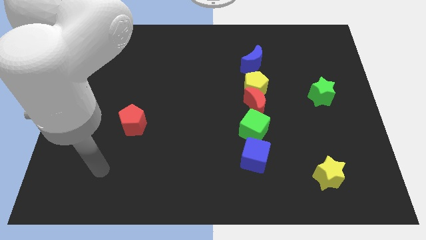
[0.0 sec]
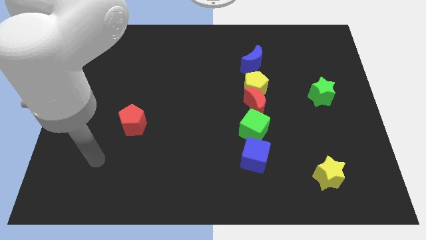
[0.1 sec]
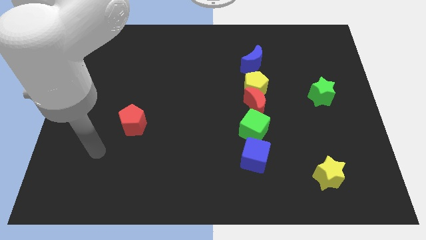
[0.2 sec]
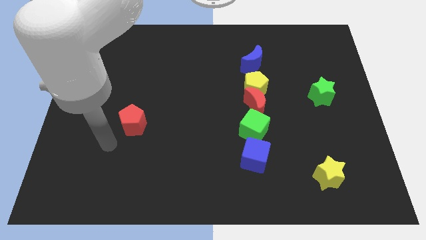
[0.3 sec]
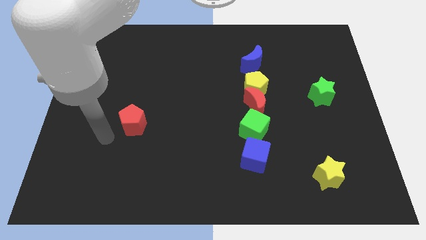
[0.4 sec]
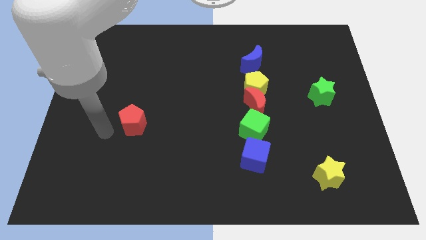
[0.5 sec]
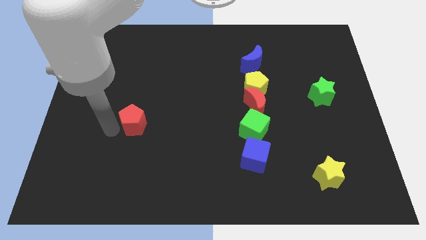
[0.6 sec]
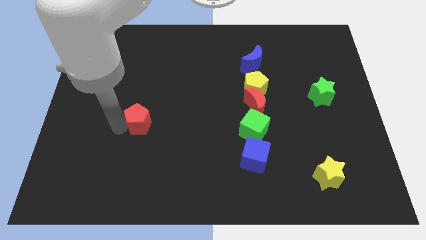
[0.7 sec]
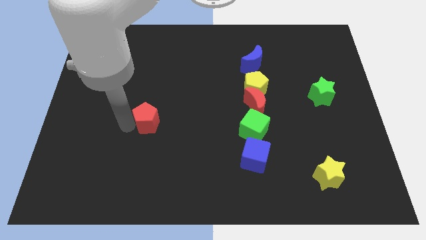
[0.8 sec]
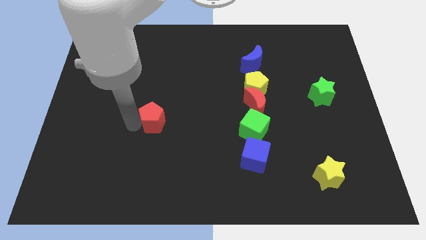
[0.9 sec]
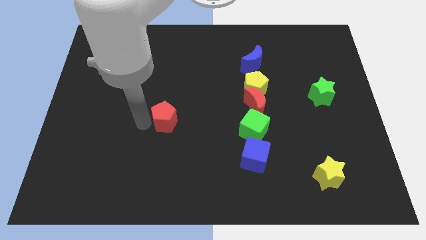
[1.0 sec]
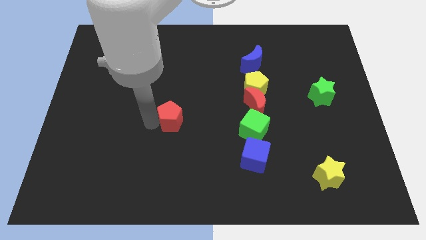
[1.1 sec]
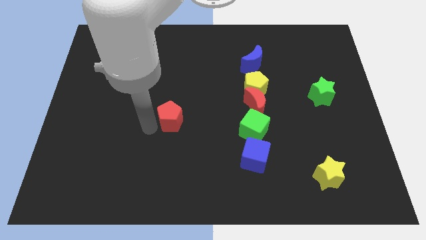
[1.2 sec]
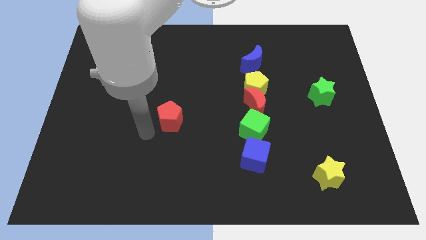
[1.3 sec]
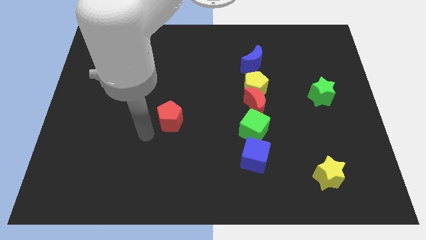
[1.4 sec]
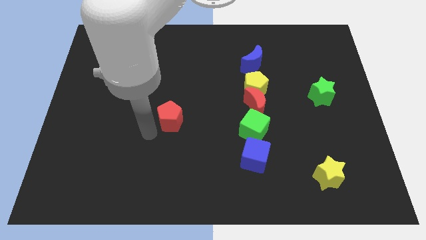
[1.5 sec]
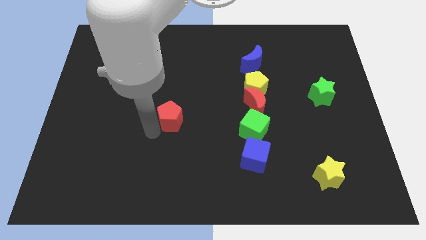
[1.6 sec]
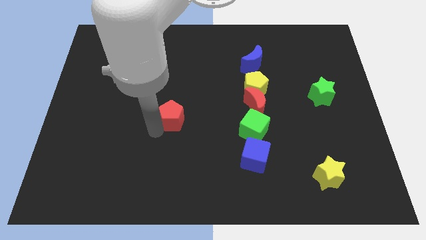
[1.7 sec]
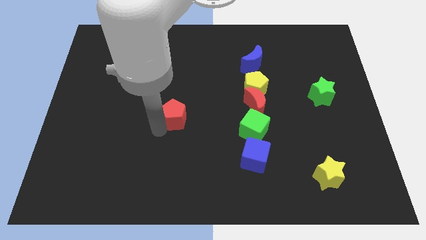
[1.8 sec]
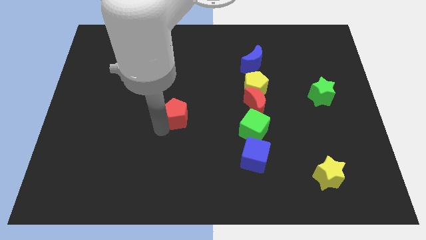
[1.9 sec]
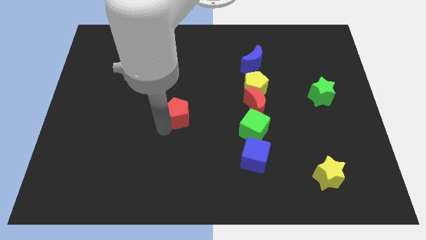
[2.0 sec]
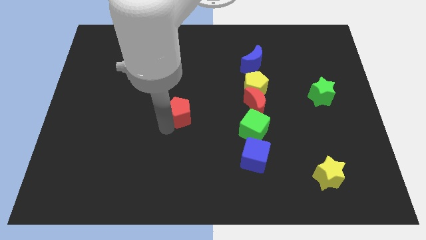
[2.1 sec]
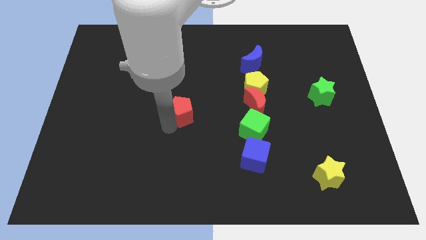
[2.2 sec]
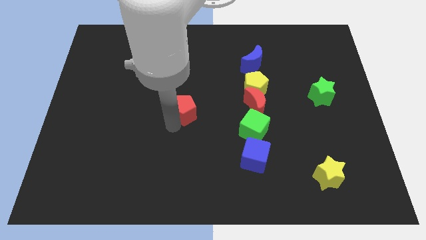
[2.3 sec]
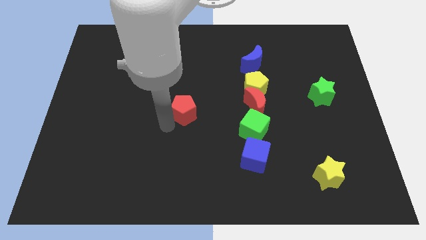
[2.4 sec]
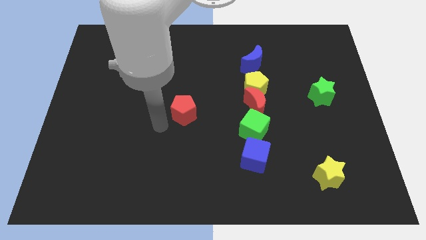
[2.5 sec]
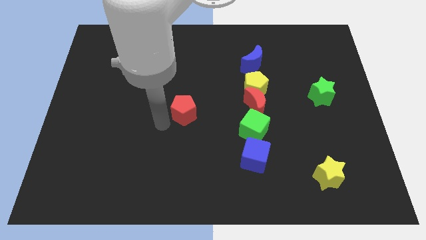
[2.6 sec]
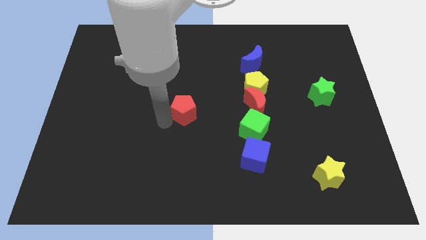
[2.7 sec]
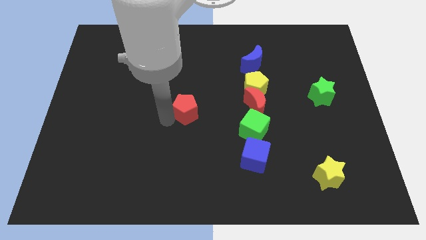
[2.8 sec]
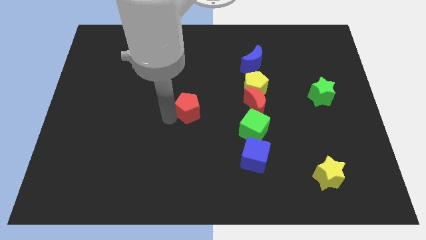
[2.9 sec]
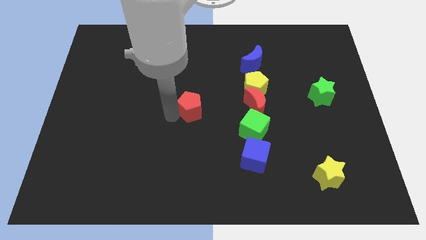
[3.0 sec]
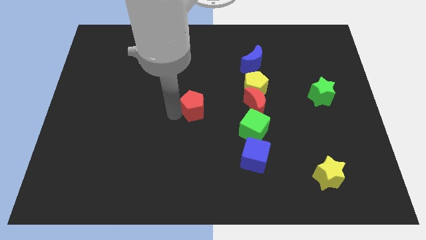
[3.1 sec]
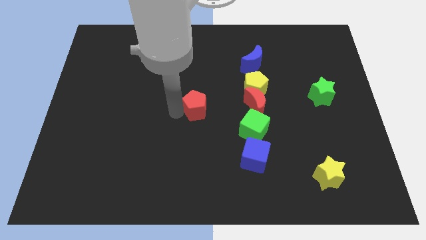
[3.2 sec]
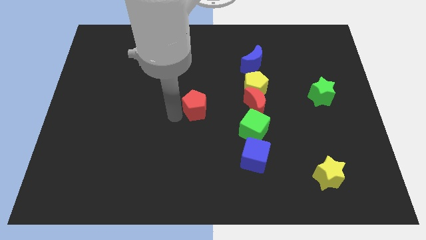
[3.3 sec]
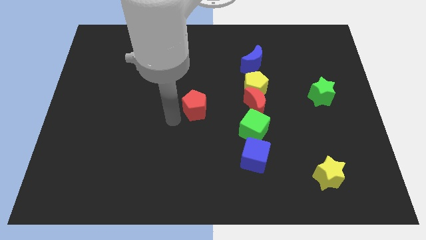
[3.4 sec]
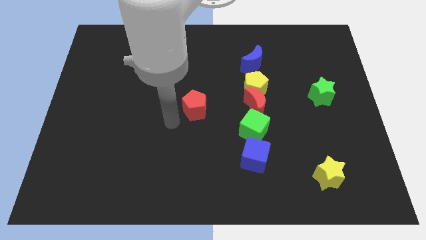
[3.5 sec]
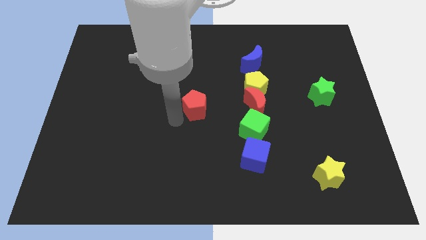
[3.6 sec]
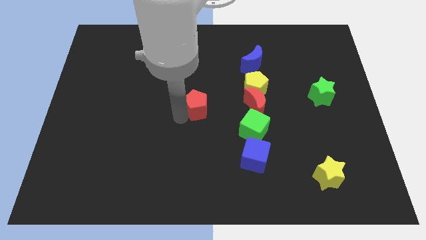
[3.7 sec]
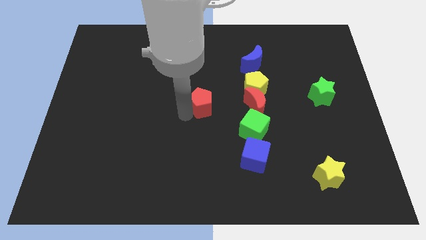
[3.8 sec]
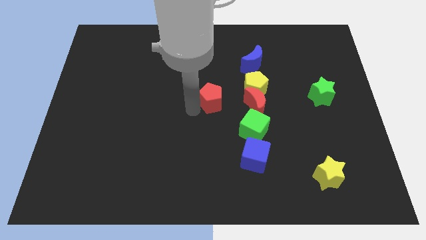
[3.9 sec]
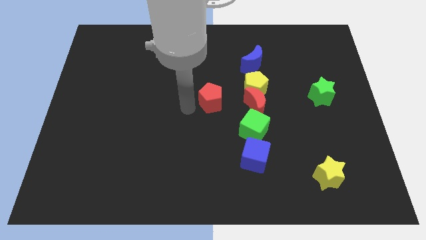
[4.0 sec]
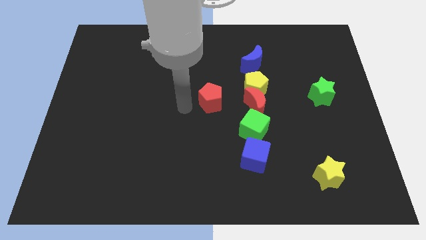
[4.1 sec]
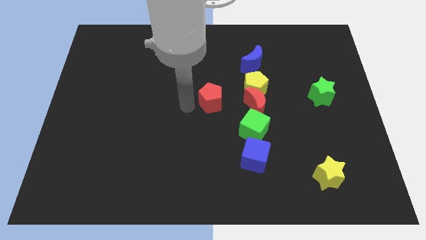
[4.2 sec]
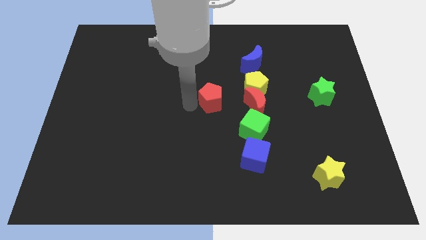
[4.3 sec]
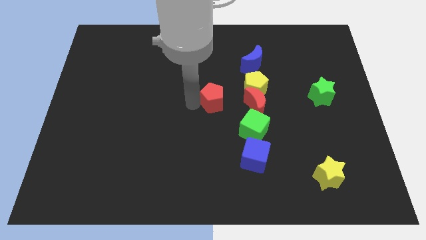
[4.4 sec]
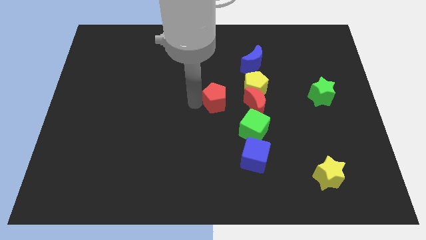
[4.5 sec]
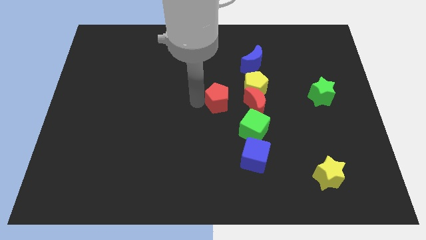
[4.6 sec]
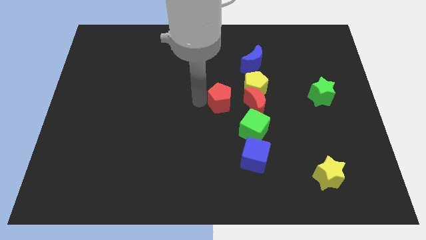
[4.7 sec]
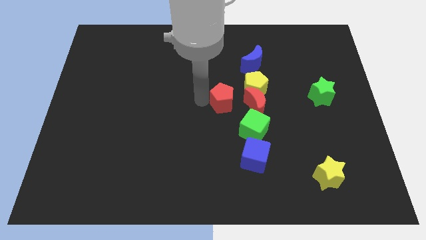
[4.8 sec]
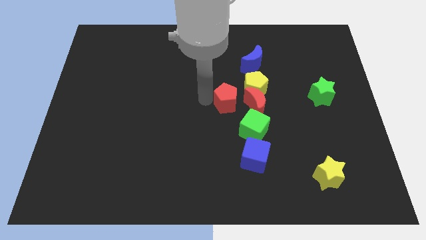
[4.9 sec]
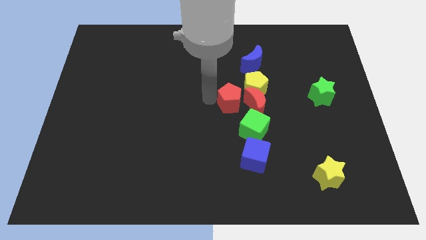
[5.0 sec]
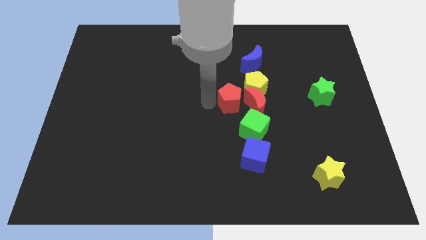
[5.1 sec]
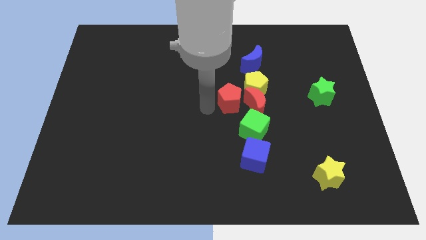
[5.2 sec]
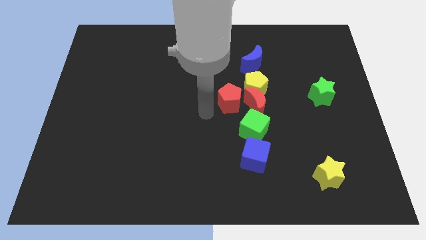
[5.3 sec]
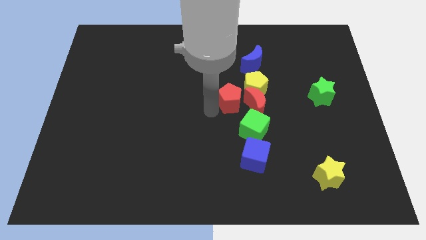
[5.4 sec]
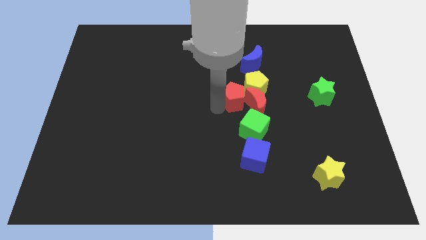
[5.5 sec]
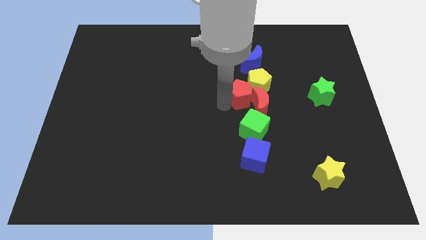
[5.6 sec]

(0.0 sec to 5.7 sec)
push the red pentagon close to the yellow pentagon

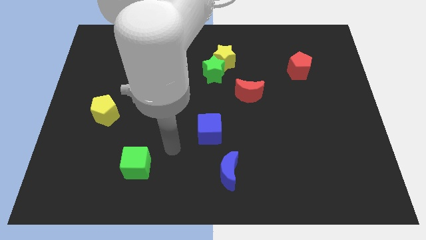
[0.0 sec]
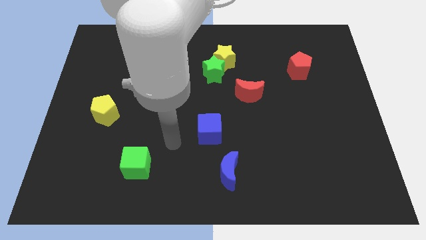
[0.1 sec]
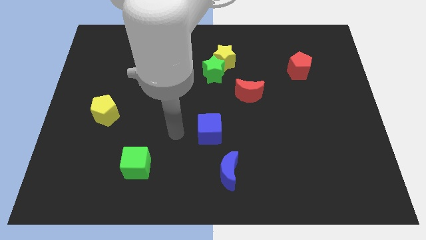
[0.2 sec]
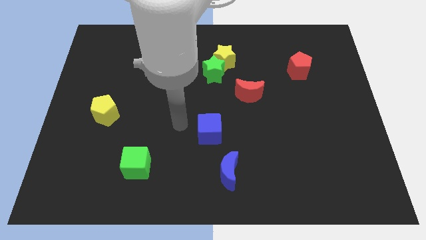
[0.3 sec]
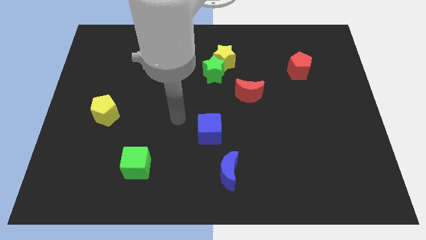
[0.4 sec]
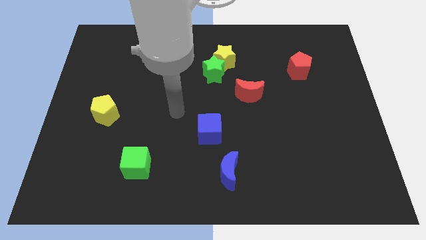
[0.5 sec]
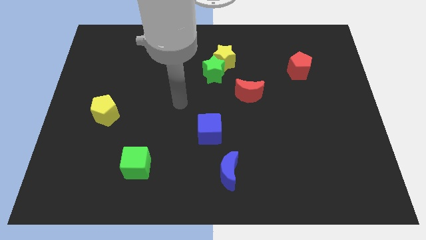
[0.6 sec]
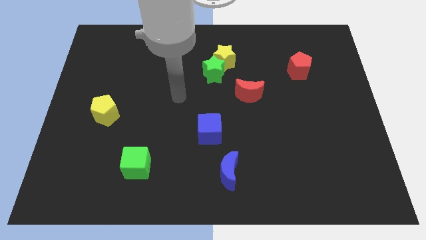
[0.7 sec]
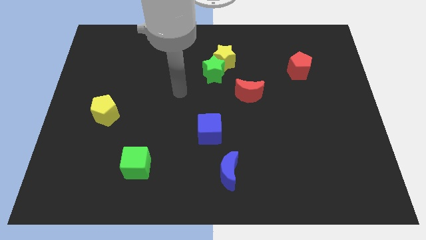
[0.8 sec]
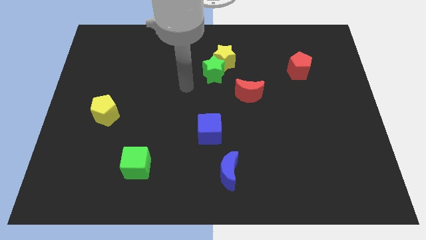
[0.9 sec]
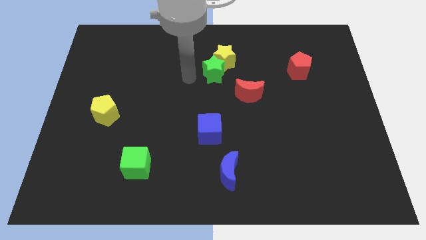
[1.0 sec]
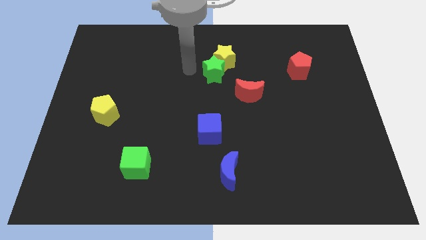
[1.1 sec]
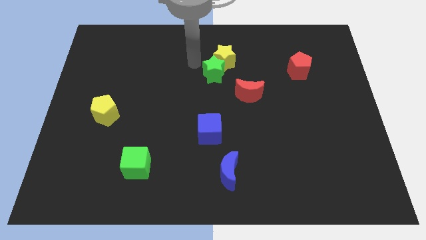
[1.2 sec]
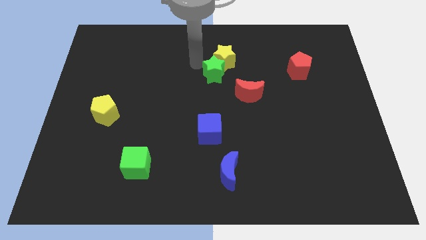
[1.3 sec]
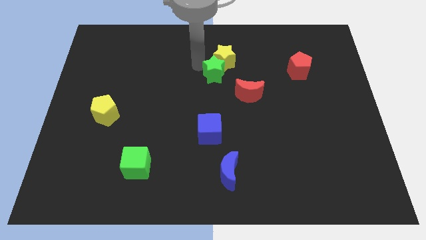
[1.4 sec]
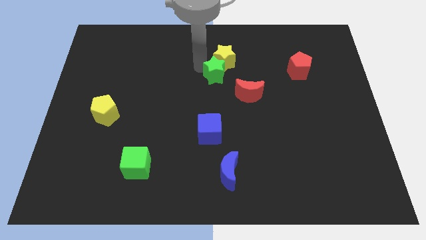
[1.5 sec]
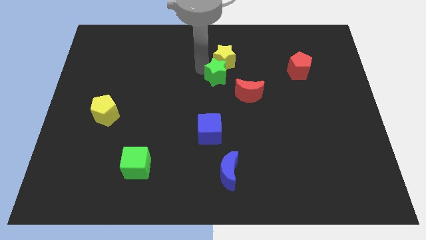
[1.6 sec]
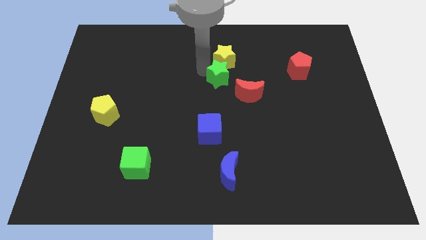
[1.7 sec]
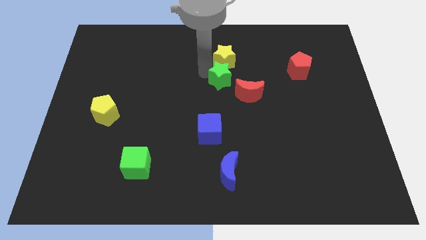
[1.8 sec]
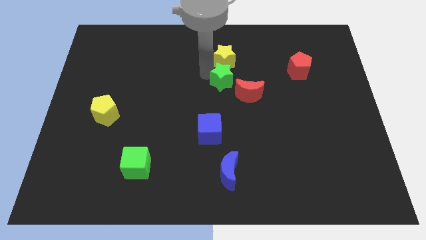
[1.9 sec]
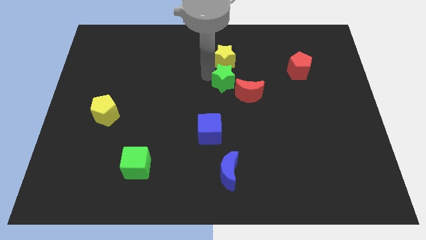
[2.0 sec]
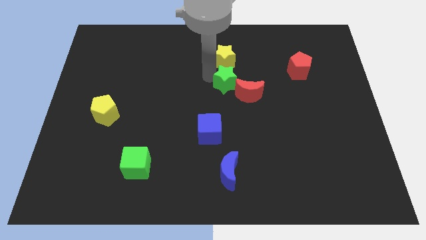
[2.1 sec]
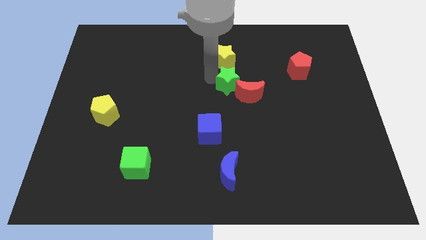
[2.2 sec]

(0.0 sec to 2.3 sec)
move the green star to the red moon
